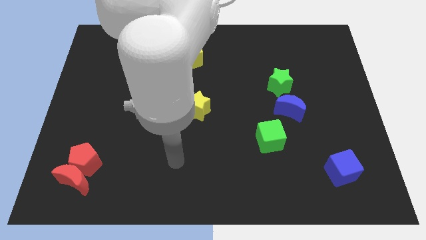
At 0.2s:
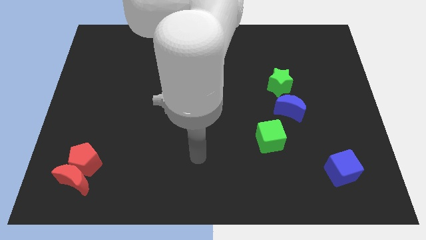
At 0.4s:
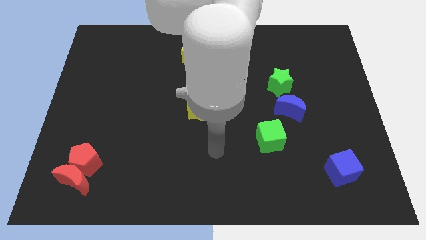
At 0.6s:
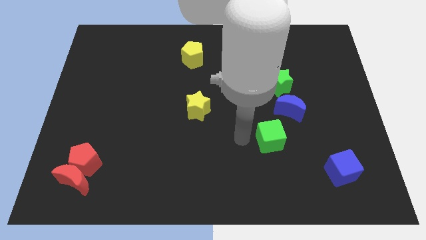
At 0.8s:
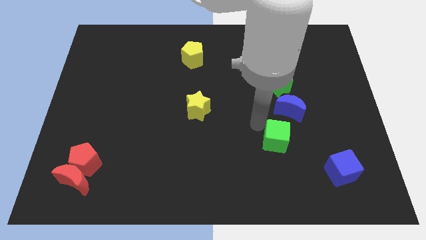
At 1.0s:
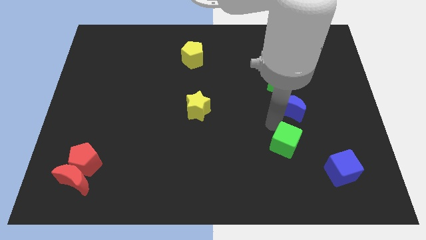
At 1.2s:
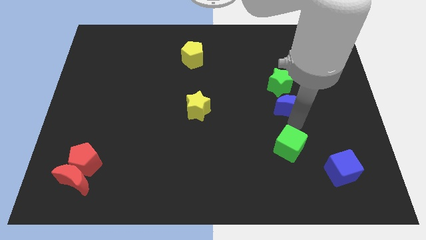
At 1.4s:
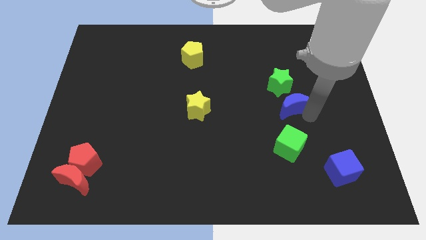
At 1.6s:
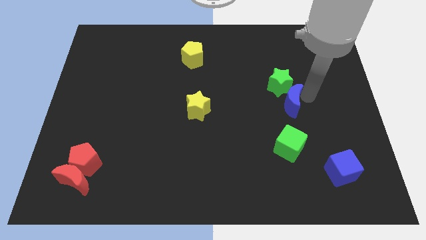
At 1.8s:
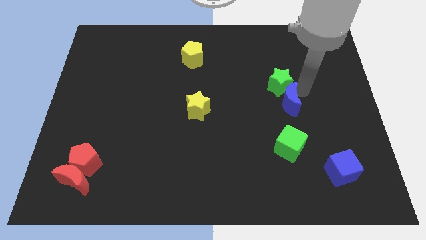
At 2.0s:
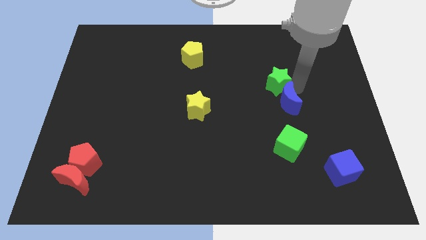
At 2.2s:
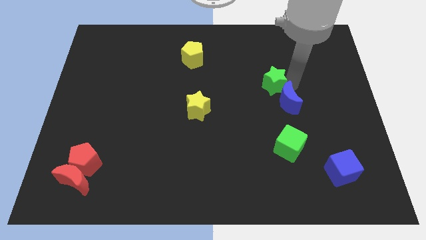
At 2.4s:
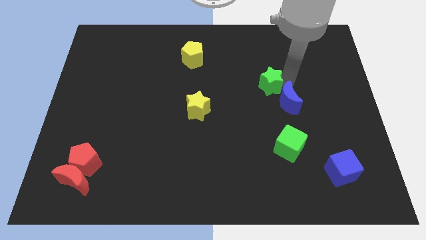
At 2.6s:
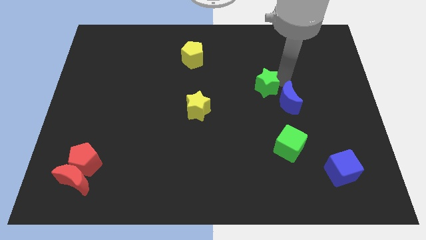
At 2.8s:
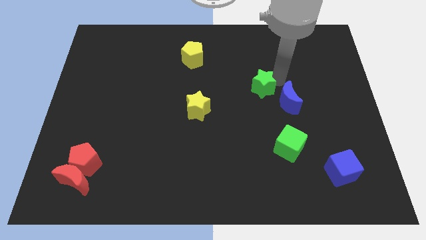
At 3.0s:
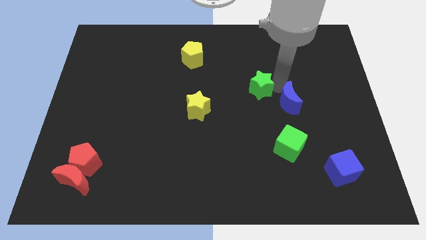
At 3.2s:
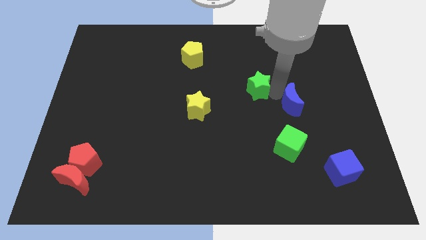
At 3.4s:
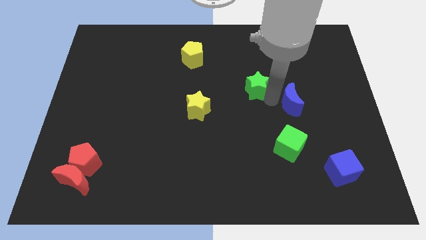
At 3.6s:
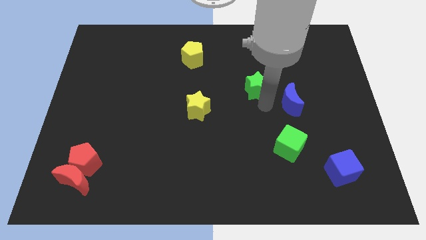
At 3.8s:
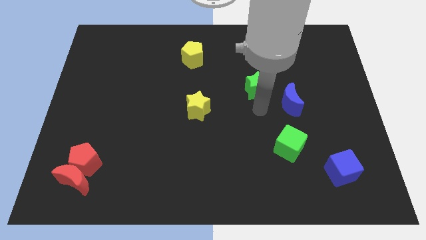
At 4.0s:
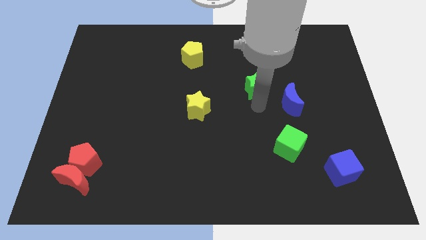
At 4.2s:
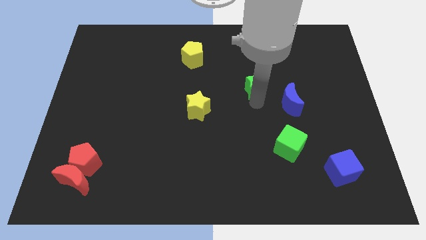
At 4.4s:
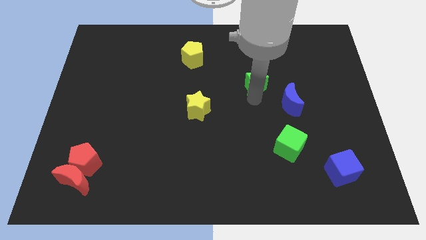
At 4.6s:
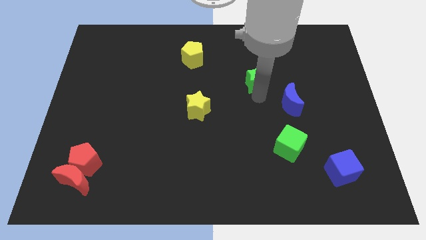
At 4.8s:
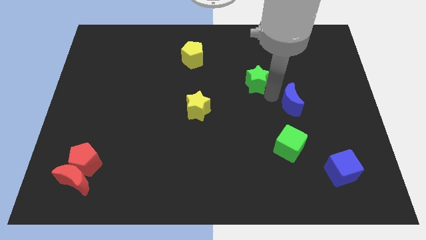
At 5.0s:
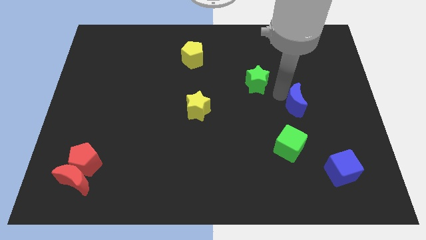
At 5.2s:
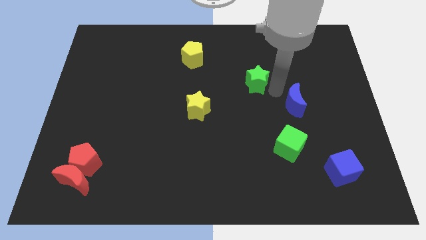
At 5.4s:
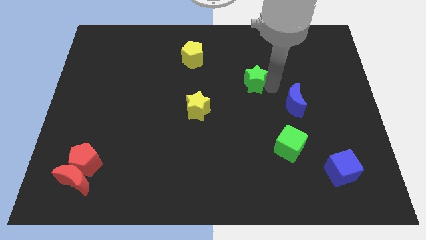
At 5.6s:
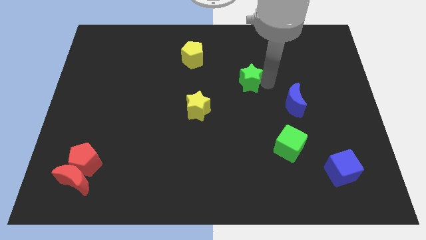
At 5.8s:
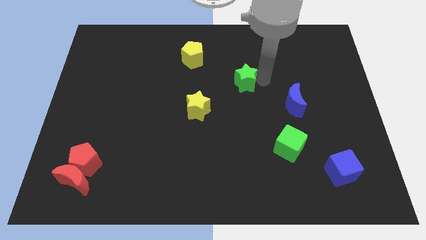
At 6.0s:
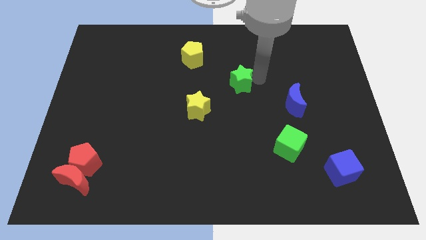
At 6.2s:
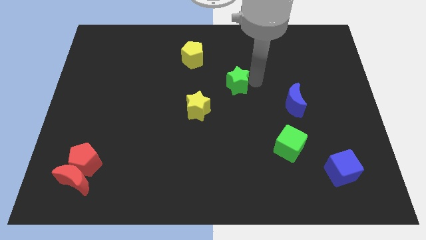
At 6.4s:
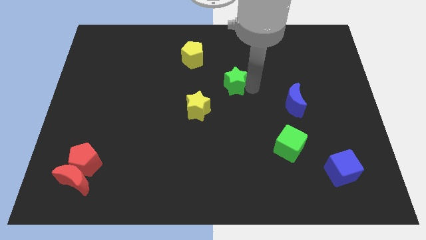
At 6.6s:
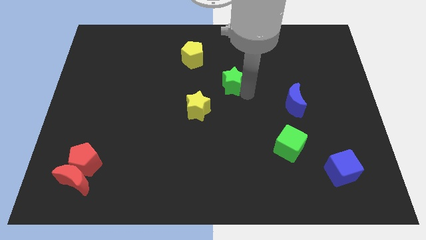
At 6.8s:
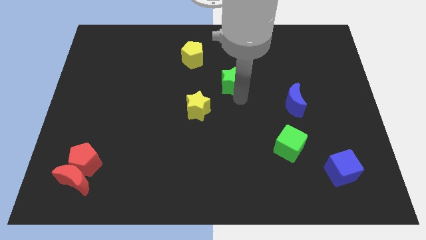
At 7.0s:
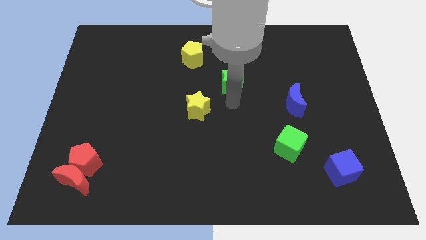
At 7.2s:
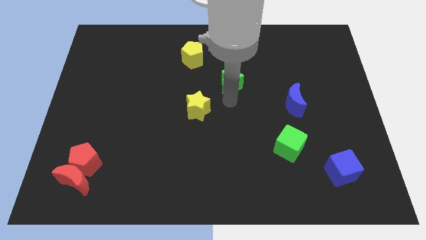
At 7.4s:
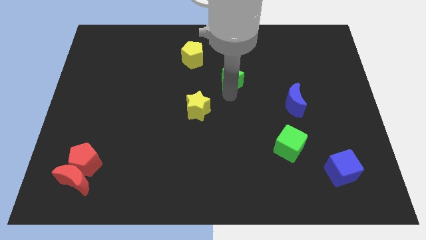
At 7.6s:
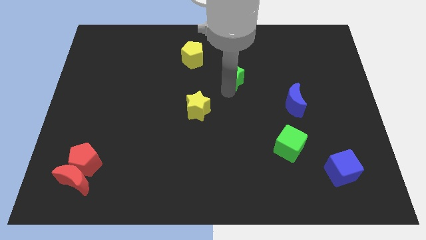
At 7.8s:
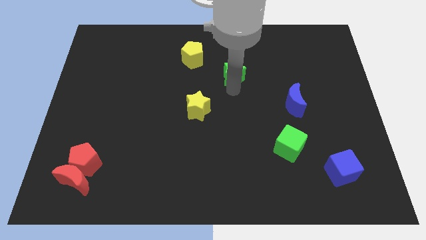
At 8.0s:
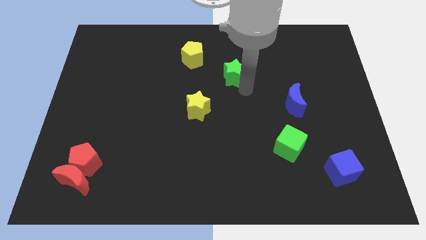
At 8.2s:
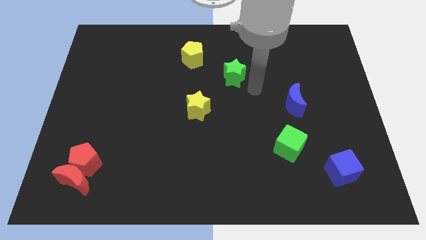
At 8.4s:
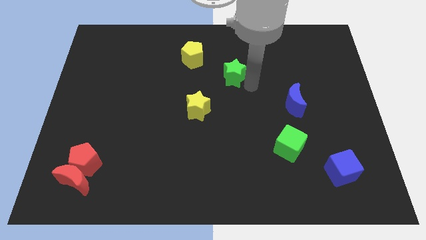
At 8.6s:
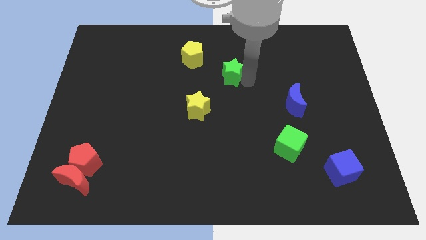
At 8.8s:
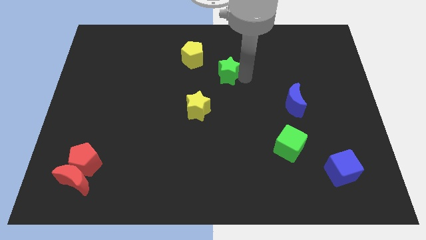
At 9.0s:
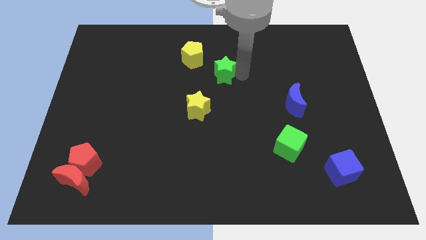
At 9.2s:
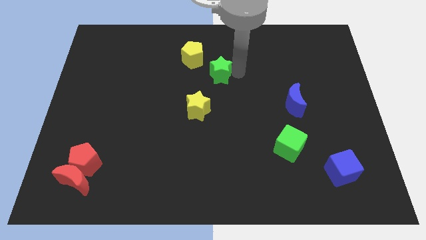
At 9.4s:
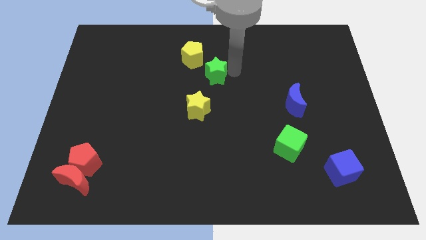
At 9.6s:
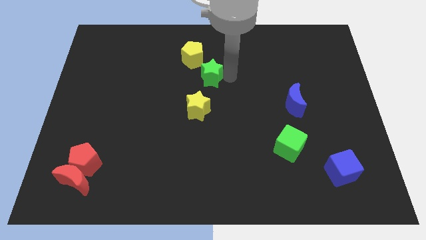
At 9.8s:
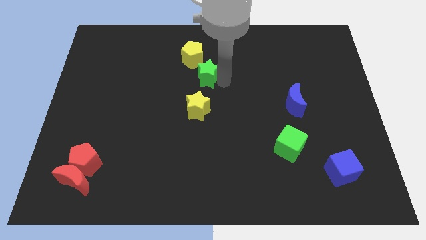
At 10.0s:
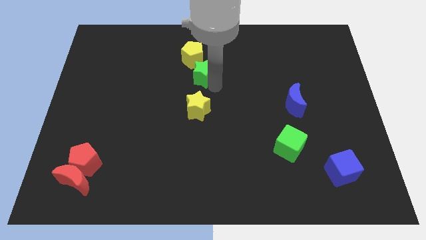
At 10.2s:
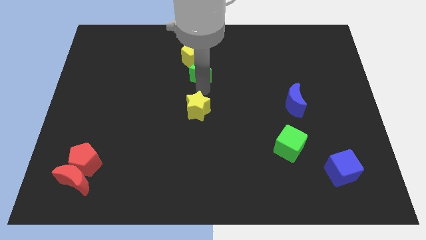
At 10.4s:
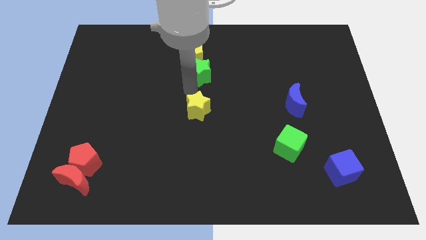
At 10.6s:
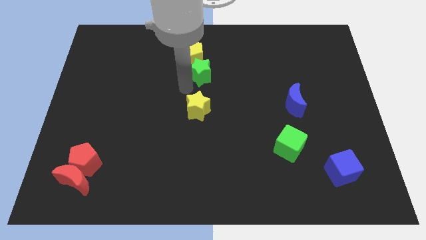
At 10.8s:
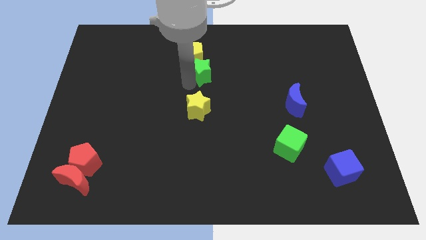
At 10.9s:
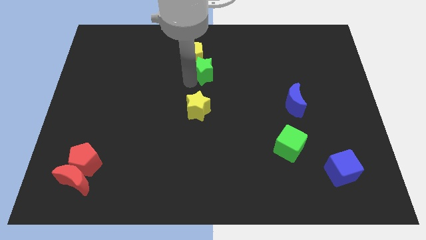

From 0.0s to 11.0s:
move the green star to the yellow pentagon
